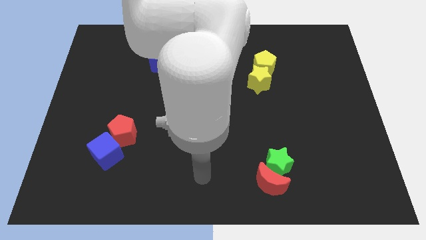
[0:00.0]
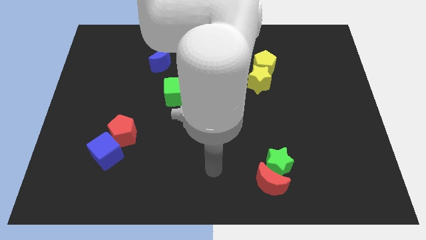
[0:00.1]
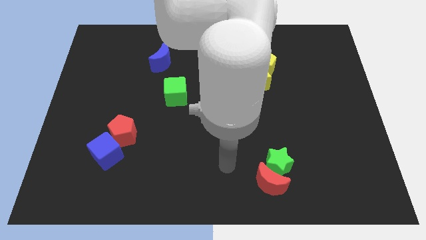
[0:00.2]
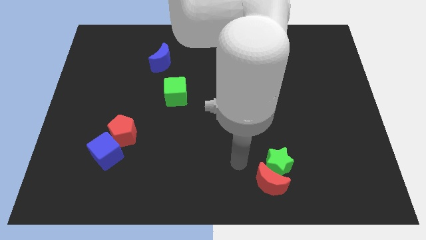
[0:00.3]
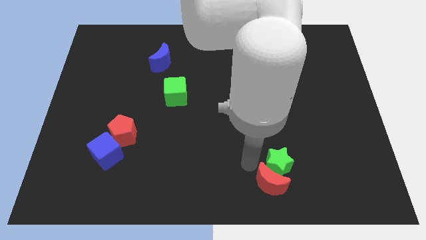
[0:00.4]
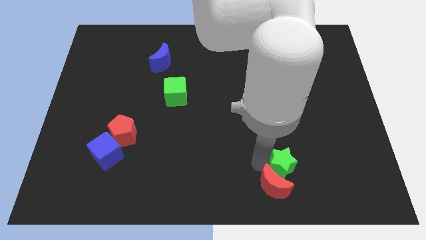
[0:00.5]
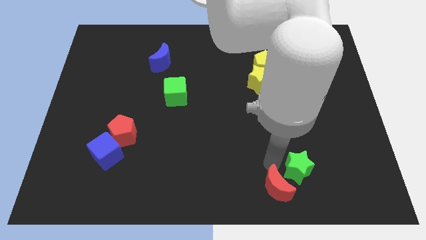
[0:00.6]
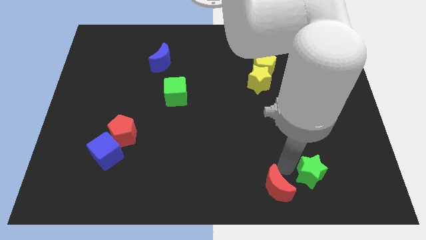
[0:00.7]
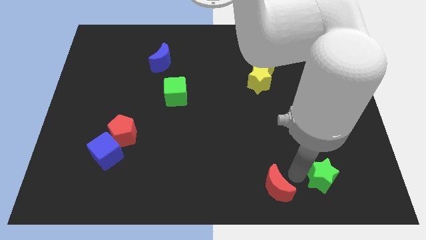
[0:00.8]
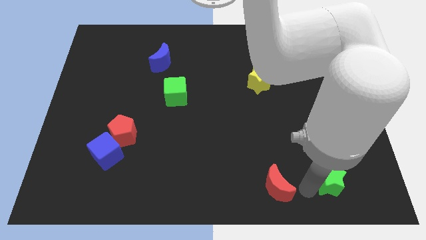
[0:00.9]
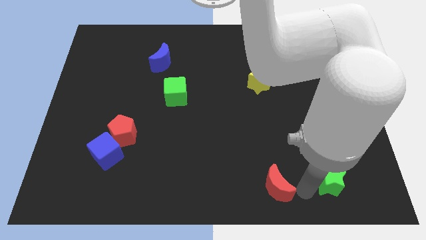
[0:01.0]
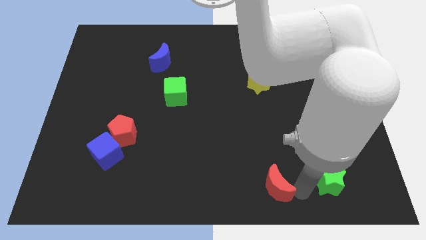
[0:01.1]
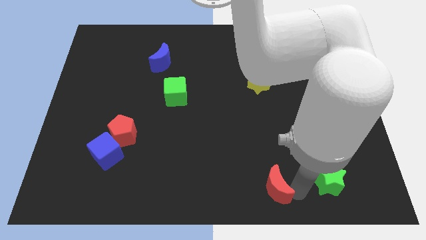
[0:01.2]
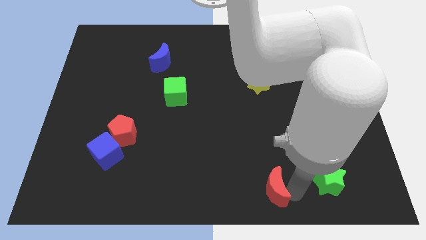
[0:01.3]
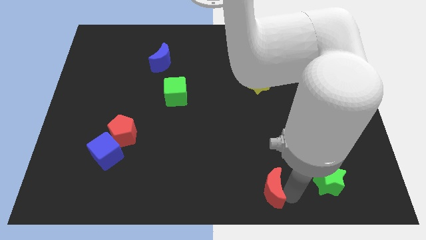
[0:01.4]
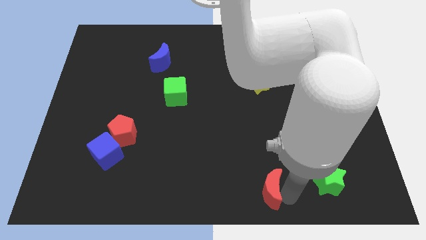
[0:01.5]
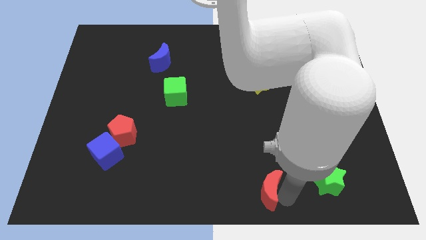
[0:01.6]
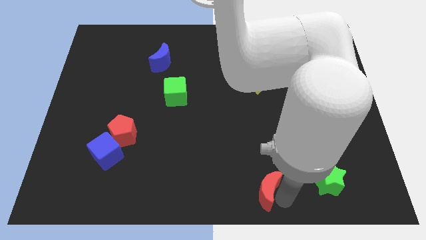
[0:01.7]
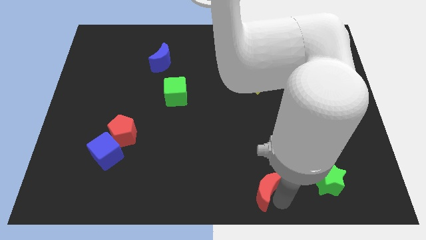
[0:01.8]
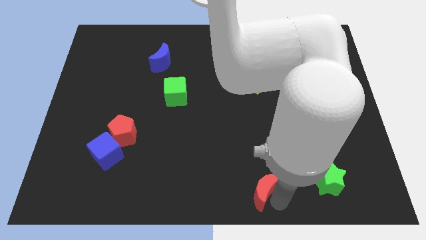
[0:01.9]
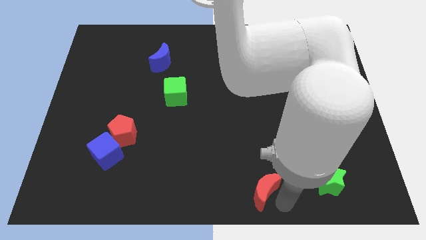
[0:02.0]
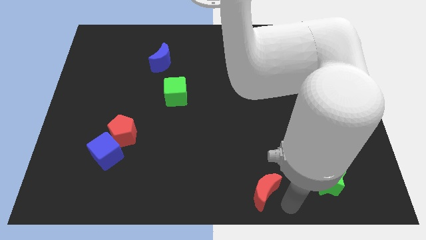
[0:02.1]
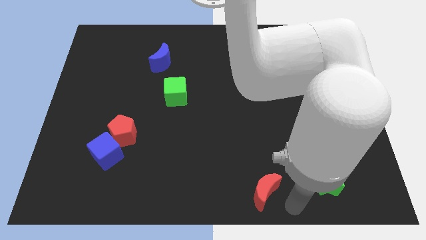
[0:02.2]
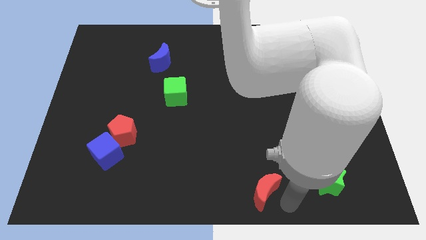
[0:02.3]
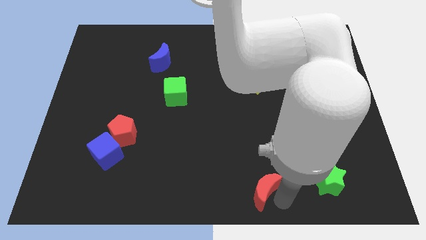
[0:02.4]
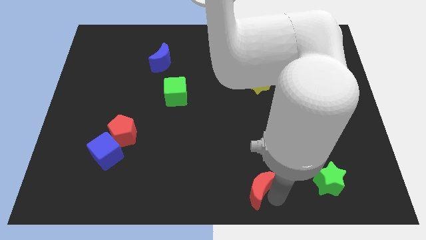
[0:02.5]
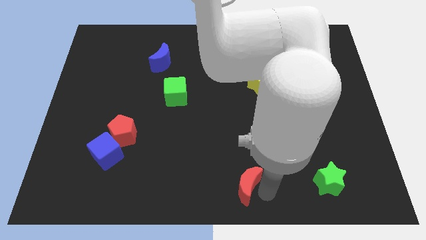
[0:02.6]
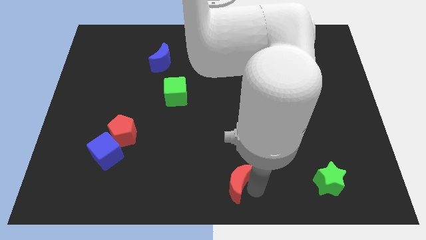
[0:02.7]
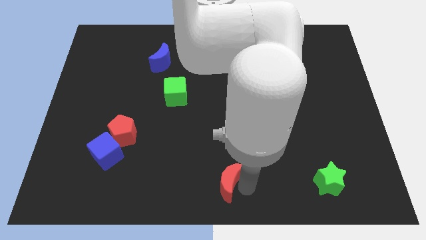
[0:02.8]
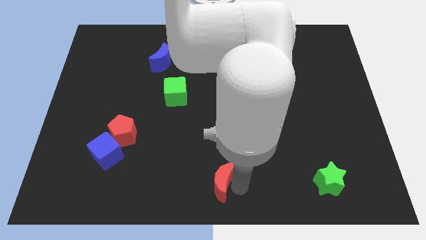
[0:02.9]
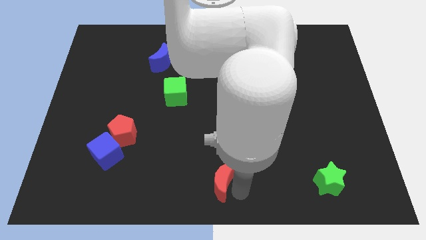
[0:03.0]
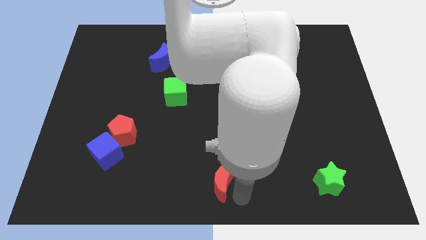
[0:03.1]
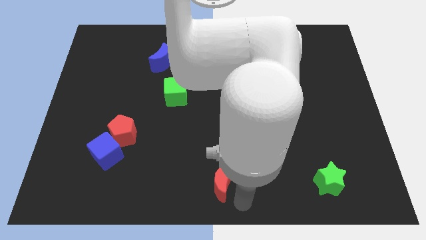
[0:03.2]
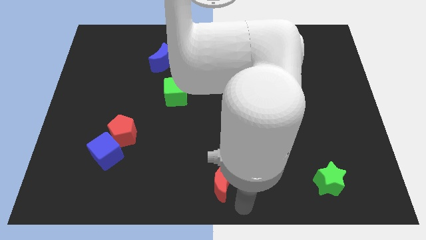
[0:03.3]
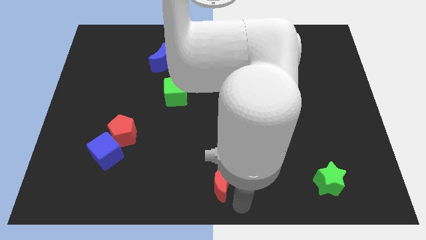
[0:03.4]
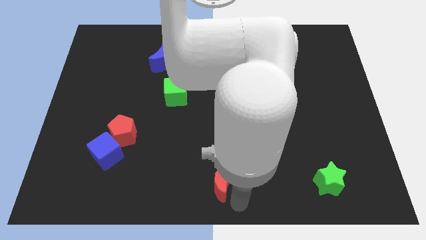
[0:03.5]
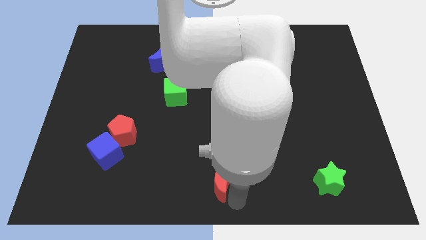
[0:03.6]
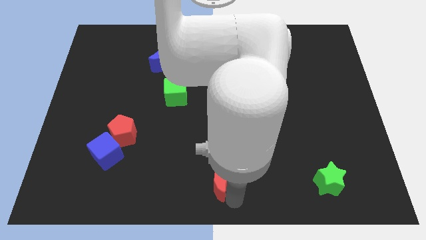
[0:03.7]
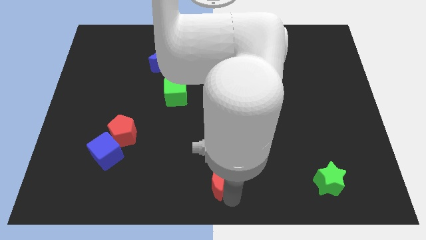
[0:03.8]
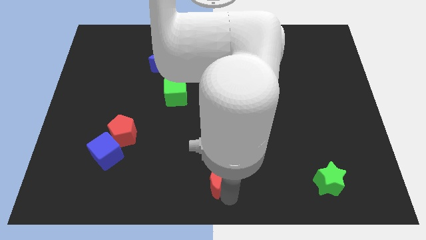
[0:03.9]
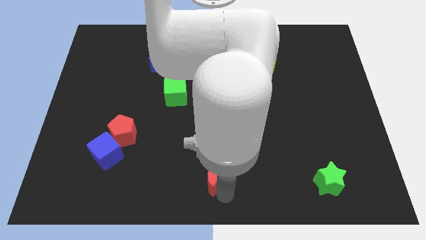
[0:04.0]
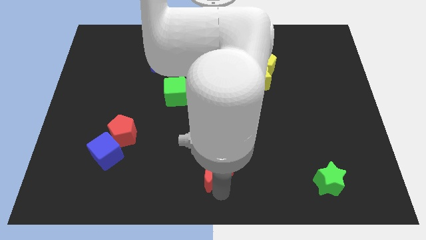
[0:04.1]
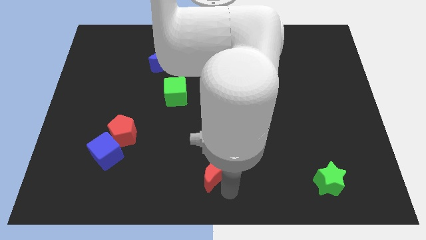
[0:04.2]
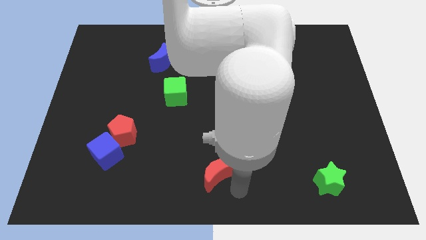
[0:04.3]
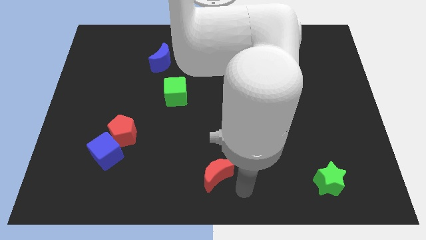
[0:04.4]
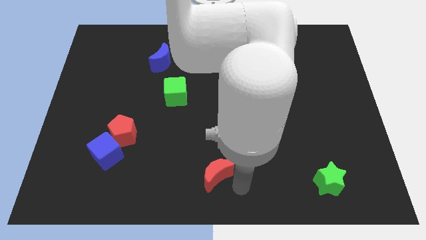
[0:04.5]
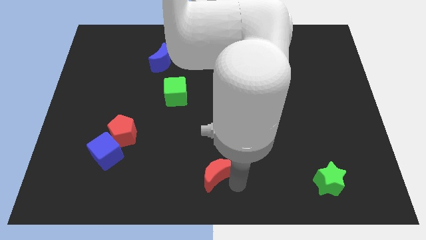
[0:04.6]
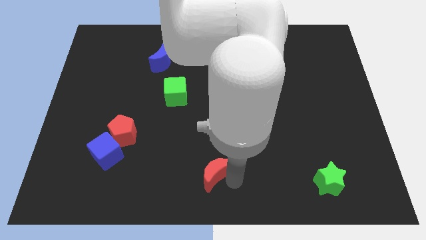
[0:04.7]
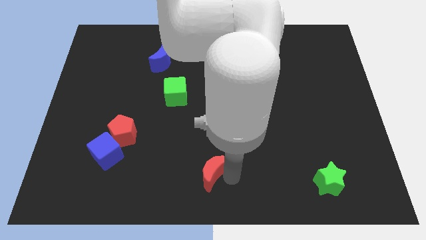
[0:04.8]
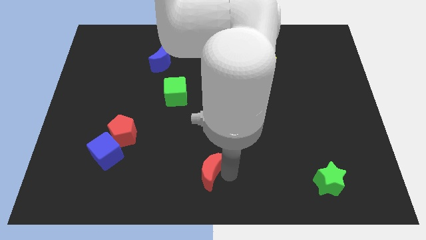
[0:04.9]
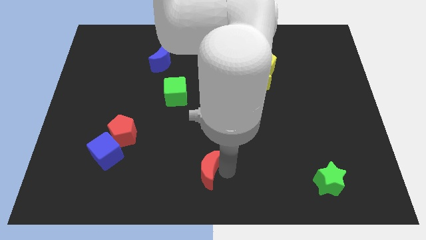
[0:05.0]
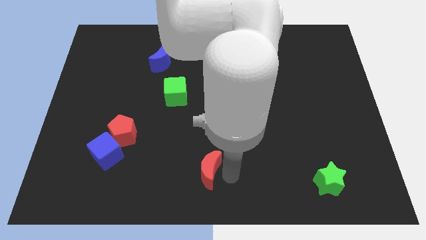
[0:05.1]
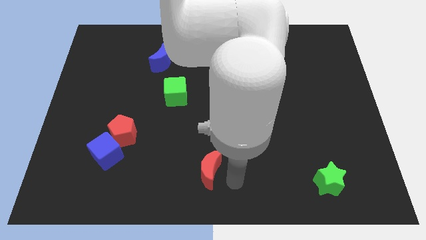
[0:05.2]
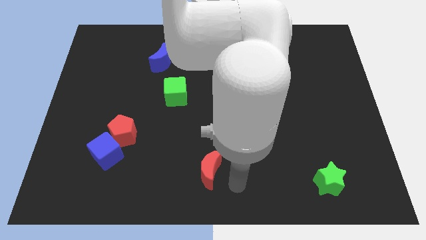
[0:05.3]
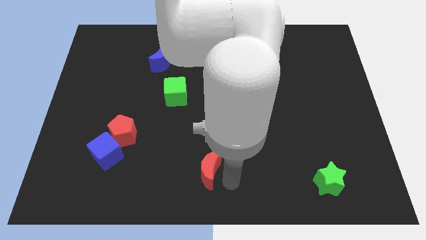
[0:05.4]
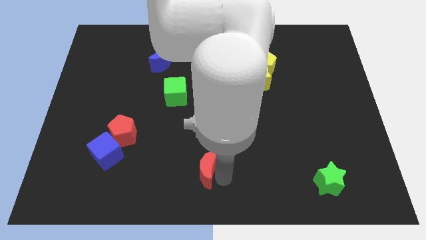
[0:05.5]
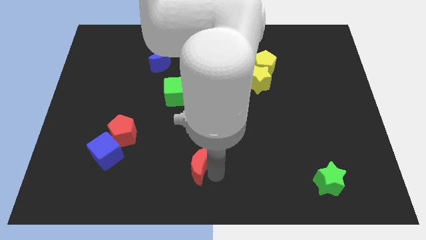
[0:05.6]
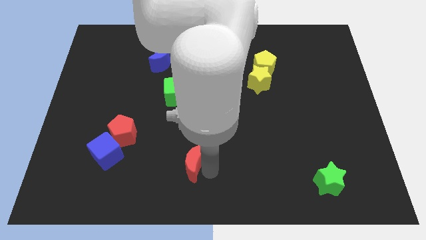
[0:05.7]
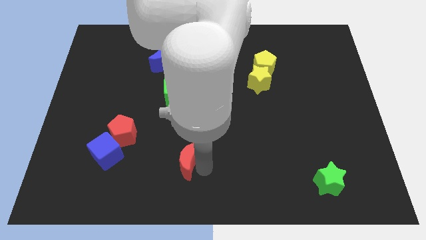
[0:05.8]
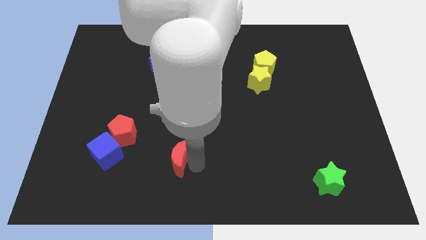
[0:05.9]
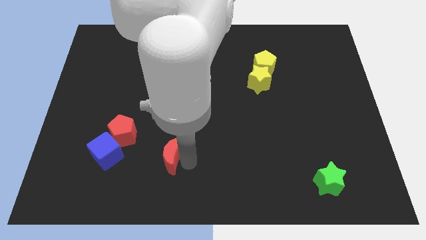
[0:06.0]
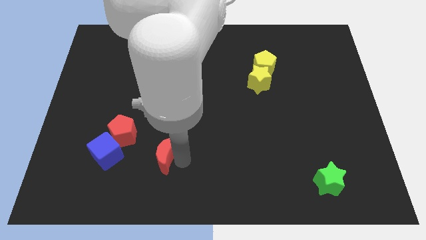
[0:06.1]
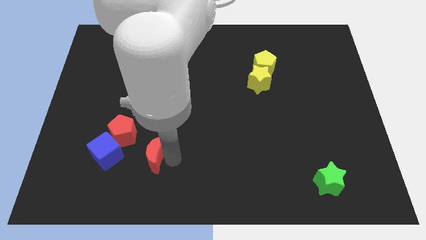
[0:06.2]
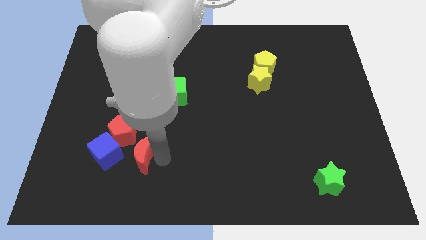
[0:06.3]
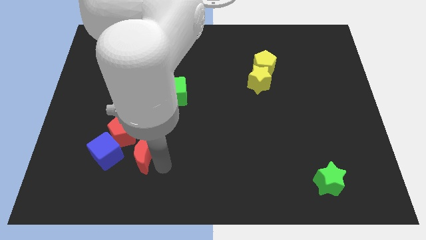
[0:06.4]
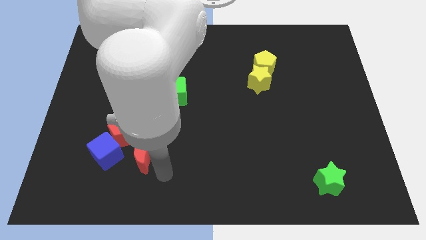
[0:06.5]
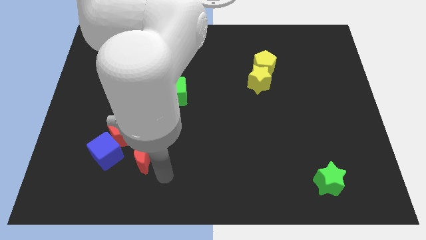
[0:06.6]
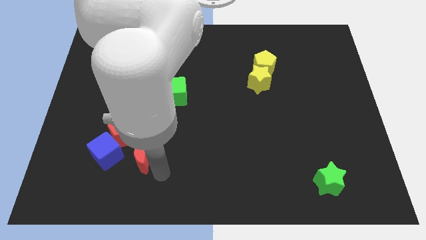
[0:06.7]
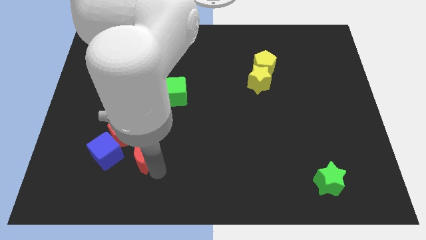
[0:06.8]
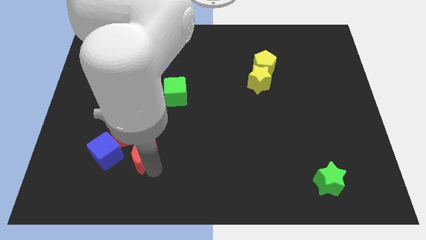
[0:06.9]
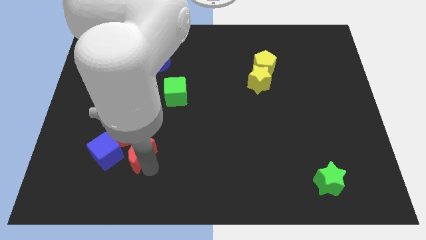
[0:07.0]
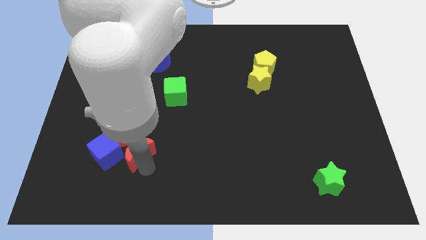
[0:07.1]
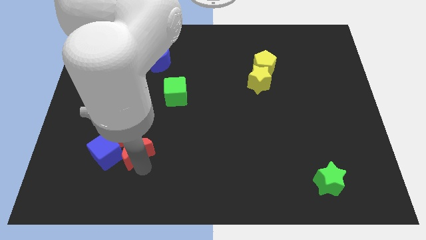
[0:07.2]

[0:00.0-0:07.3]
move the red moon close to the red pentagon
